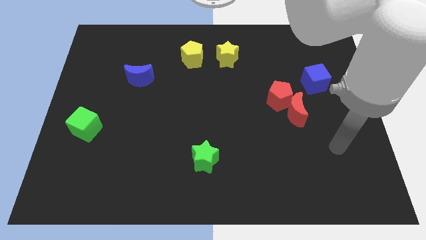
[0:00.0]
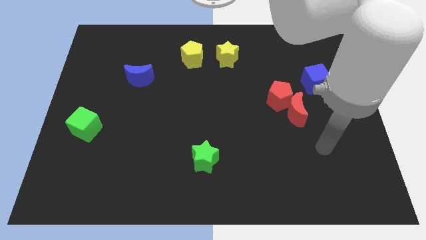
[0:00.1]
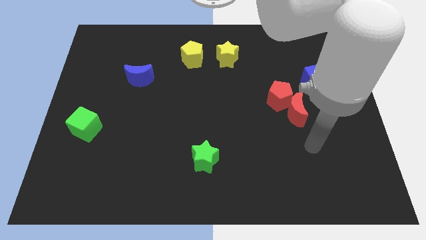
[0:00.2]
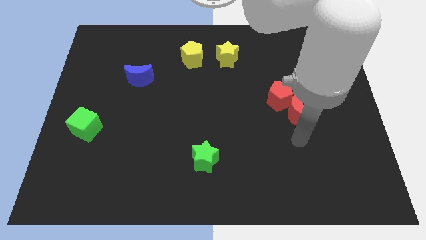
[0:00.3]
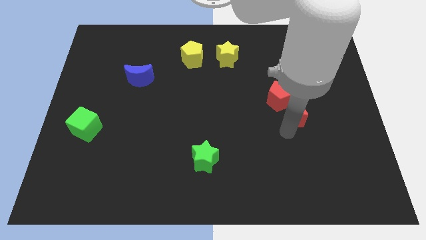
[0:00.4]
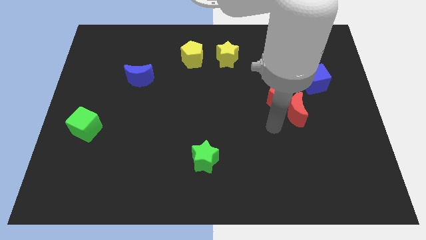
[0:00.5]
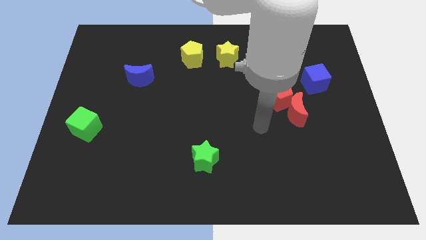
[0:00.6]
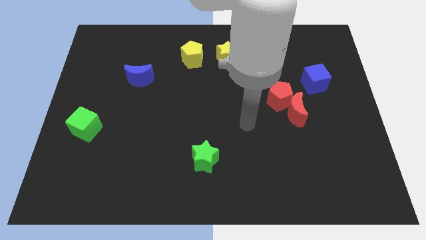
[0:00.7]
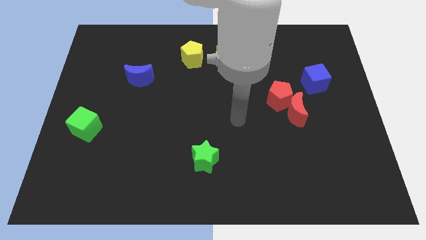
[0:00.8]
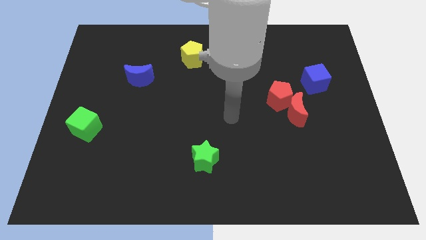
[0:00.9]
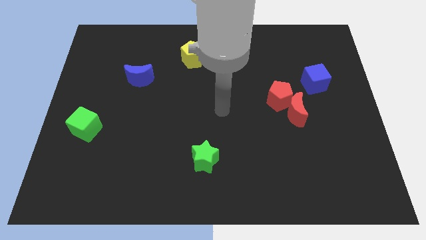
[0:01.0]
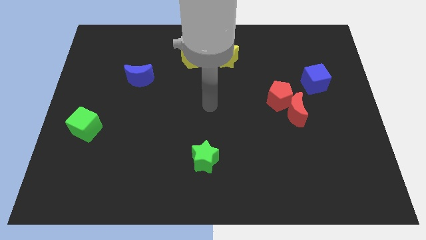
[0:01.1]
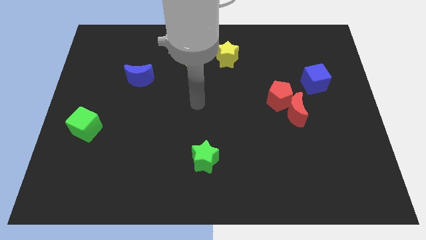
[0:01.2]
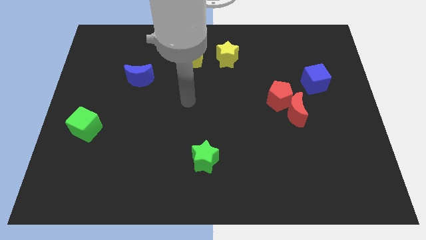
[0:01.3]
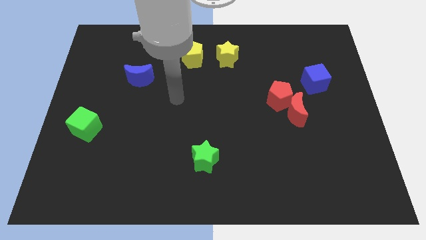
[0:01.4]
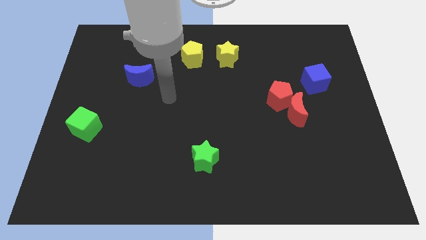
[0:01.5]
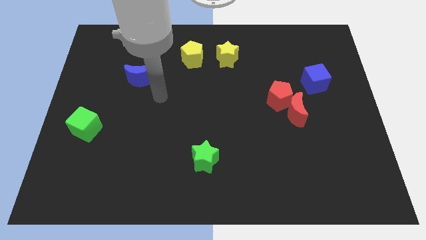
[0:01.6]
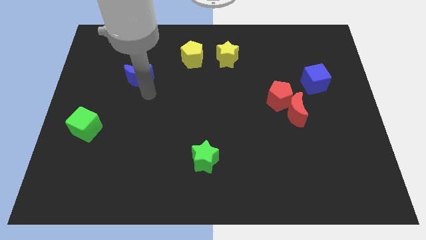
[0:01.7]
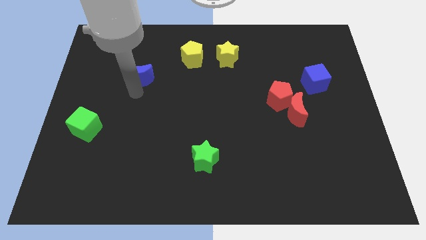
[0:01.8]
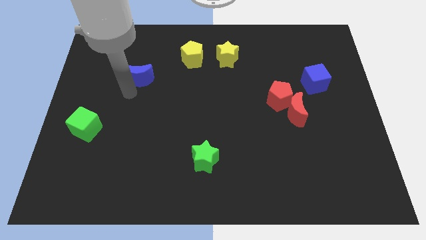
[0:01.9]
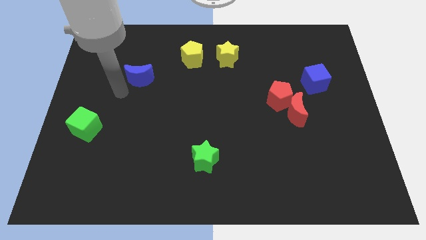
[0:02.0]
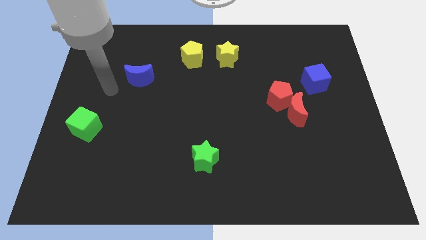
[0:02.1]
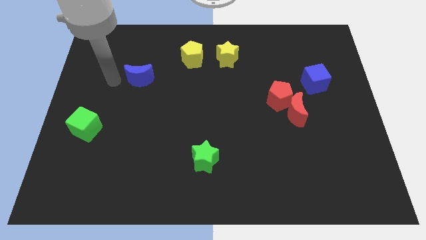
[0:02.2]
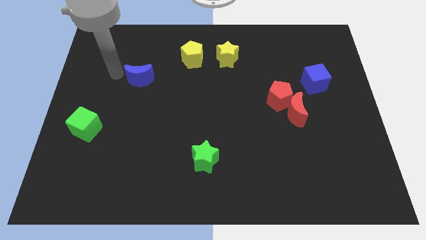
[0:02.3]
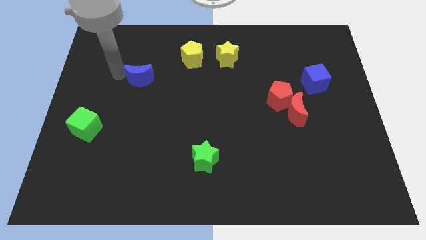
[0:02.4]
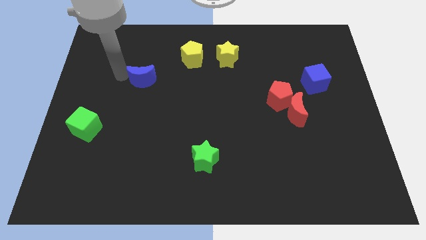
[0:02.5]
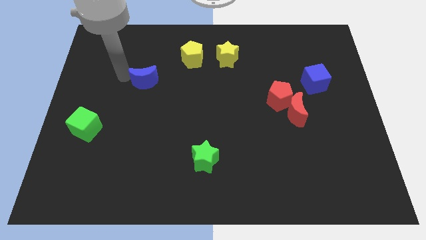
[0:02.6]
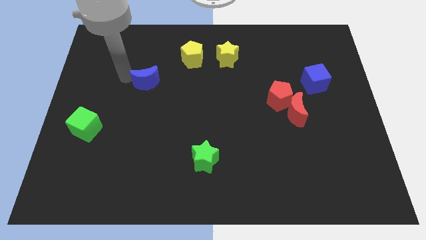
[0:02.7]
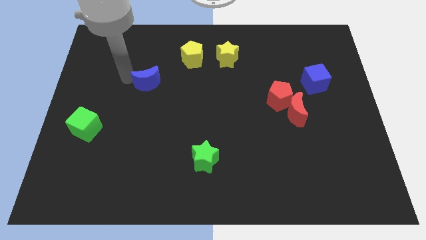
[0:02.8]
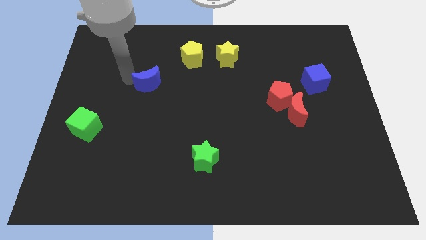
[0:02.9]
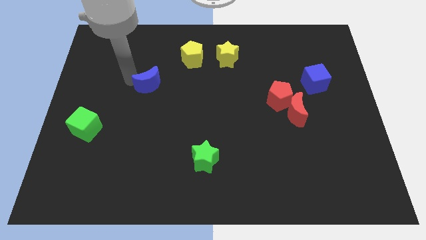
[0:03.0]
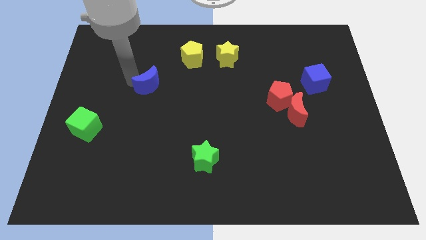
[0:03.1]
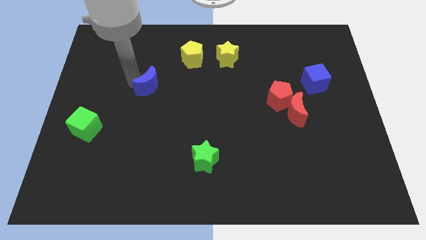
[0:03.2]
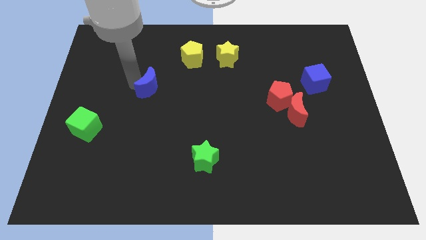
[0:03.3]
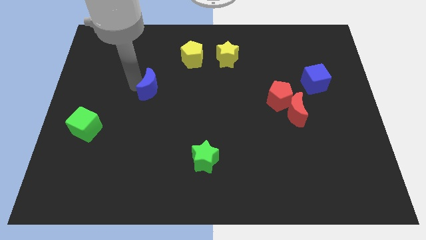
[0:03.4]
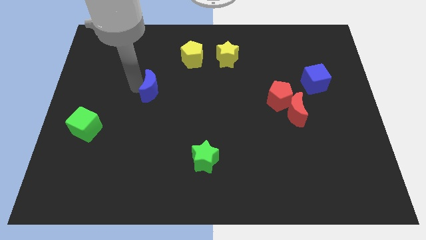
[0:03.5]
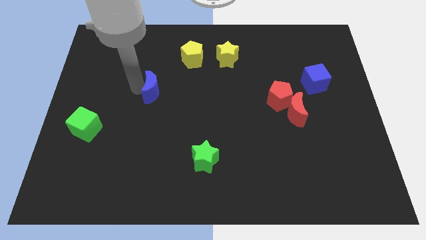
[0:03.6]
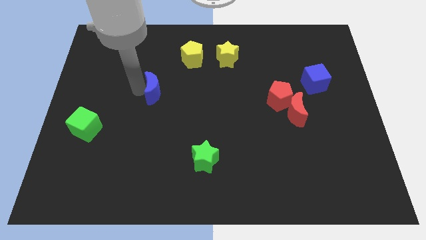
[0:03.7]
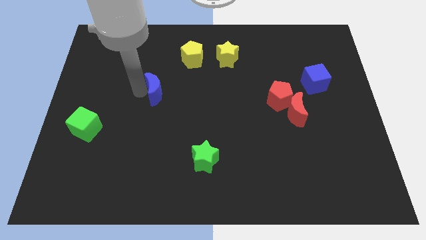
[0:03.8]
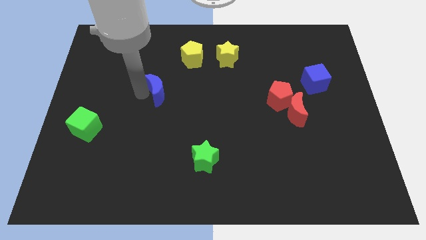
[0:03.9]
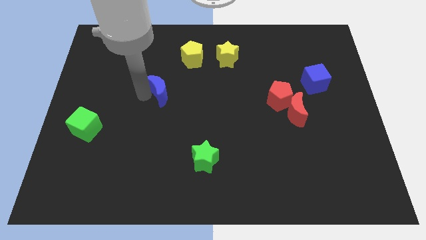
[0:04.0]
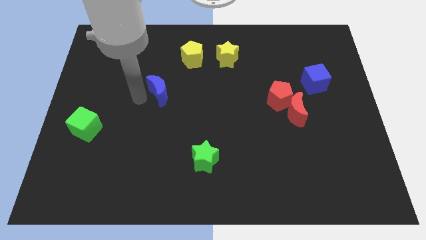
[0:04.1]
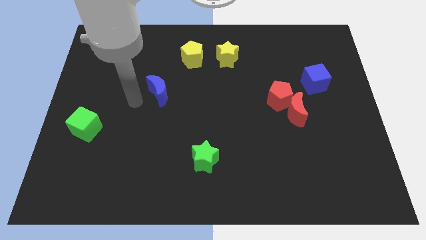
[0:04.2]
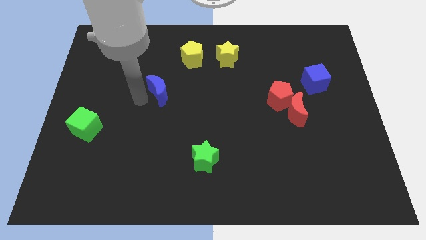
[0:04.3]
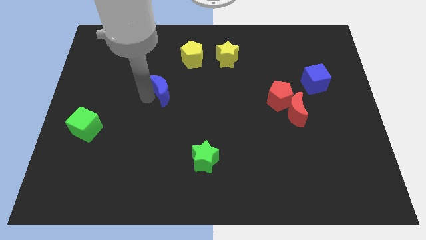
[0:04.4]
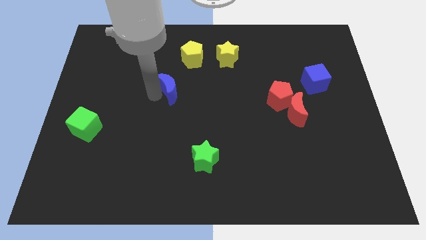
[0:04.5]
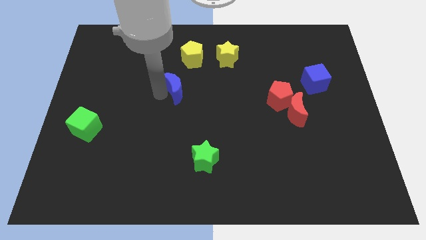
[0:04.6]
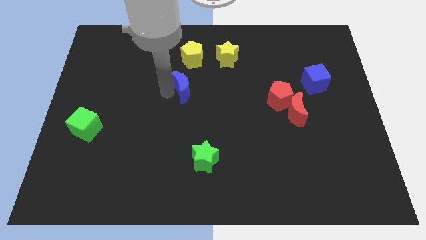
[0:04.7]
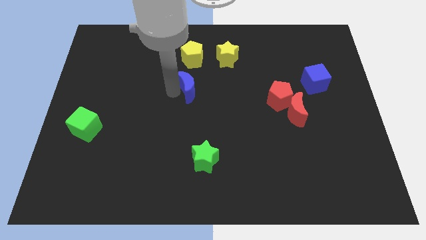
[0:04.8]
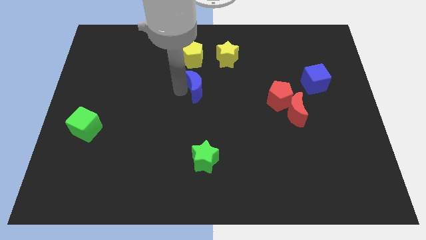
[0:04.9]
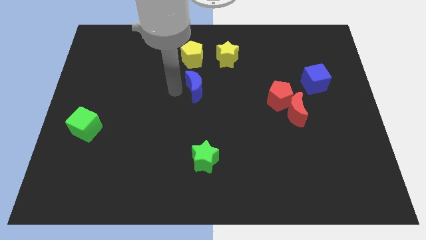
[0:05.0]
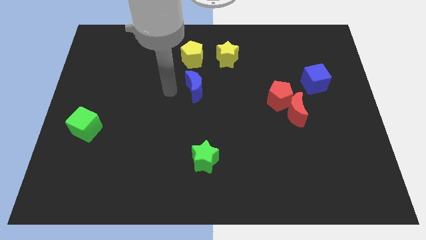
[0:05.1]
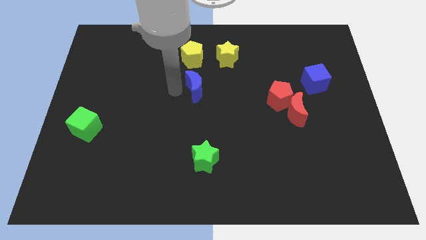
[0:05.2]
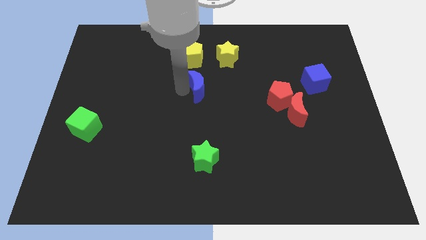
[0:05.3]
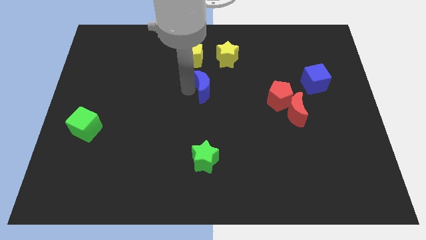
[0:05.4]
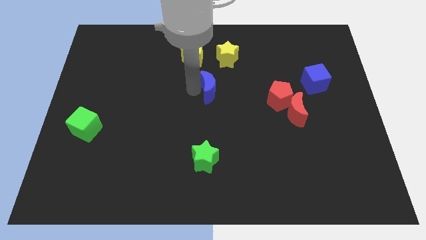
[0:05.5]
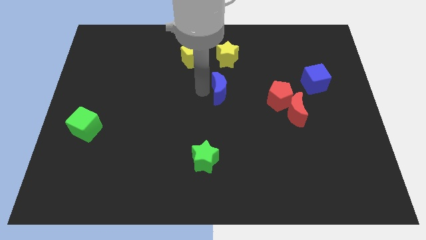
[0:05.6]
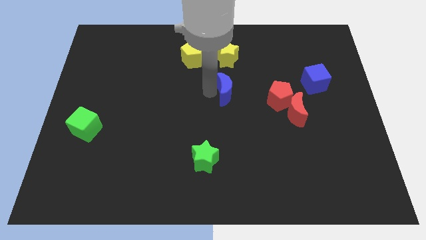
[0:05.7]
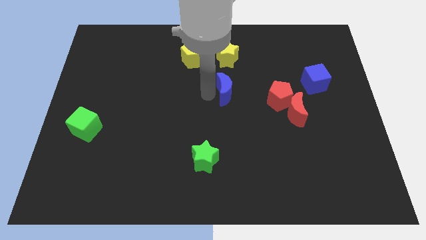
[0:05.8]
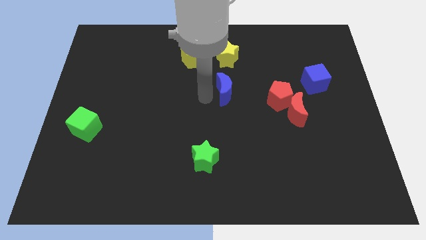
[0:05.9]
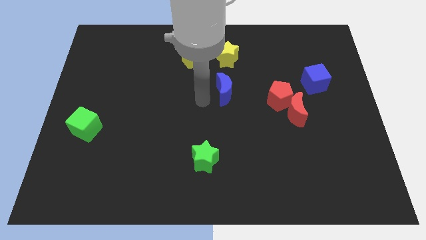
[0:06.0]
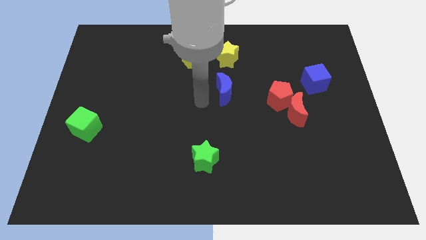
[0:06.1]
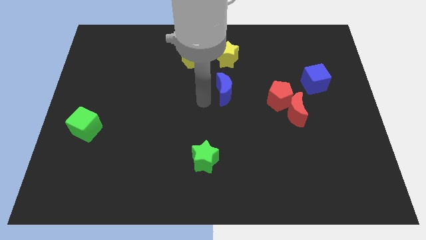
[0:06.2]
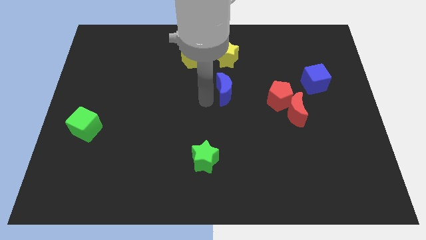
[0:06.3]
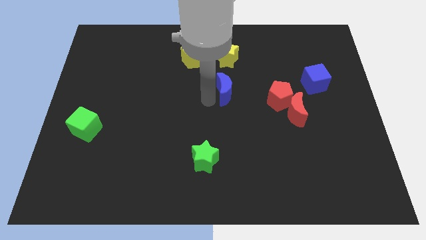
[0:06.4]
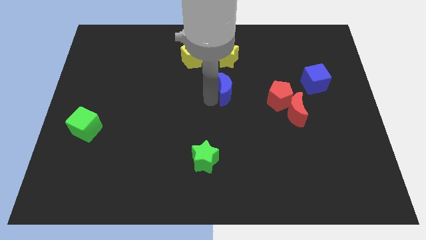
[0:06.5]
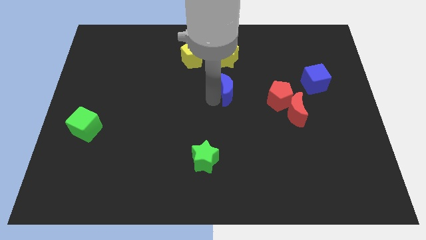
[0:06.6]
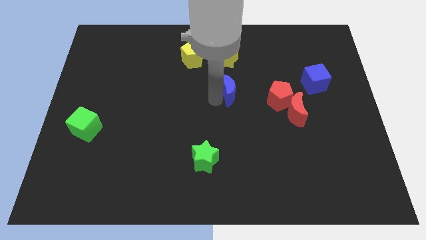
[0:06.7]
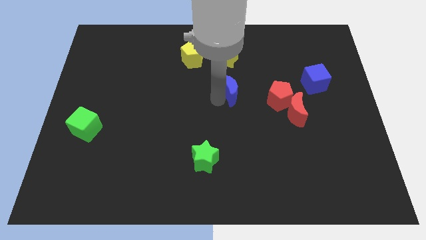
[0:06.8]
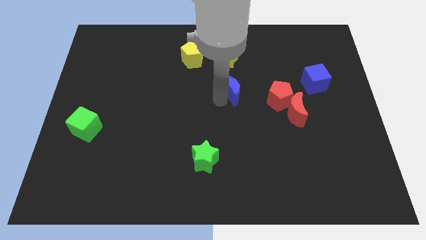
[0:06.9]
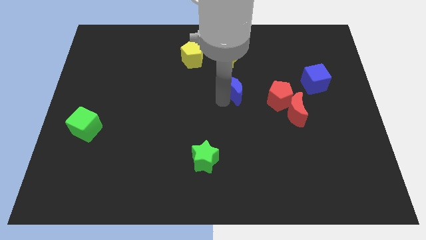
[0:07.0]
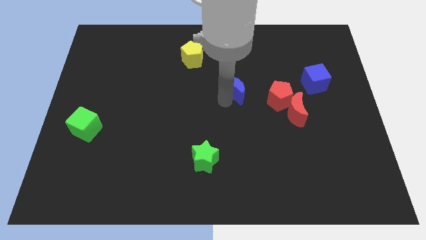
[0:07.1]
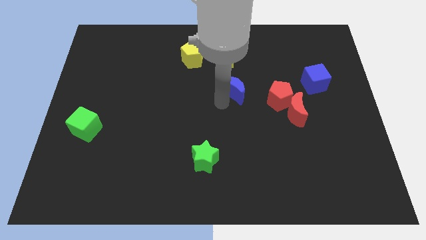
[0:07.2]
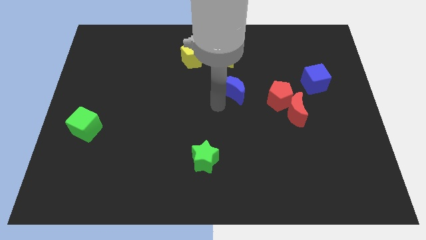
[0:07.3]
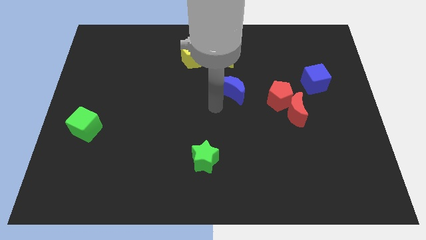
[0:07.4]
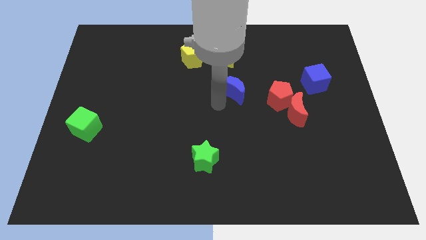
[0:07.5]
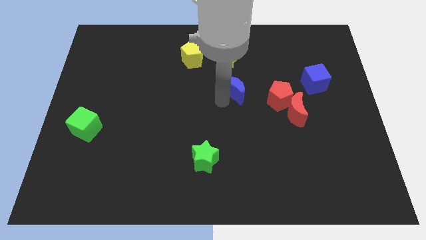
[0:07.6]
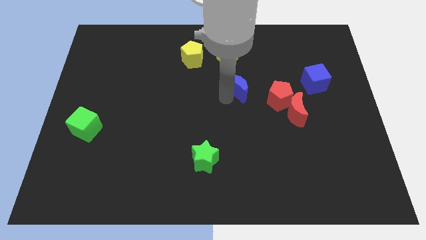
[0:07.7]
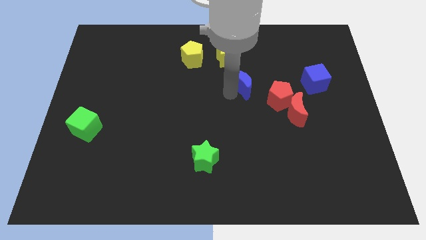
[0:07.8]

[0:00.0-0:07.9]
move the blue moon to the top left of the red pentagon
